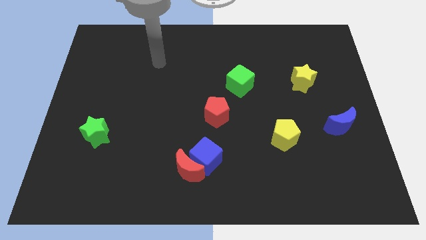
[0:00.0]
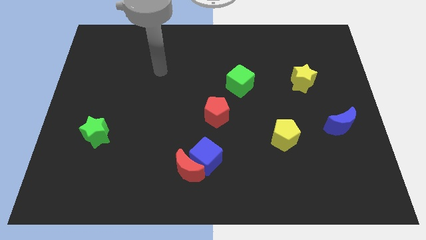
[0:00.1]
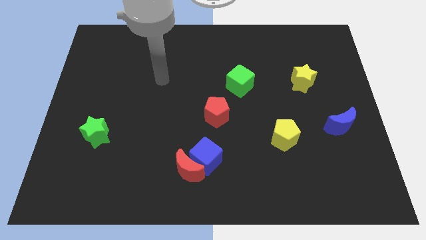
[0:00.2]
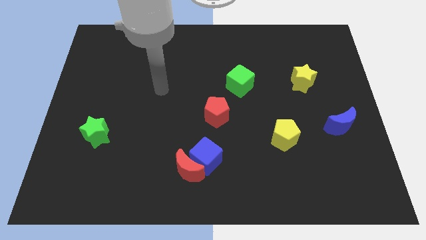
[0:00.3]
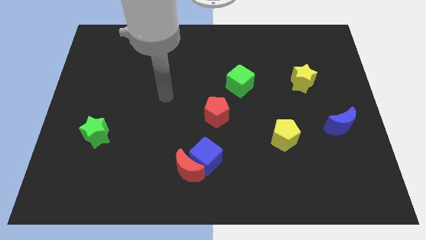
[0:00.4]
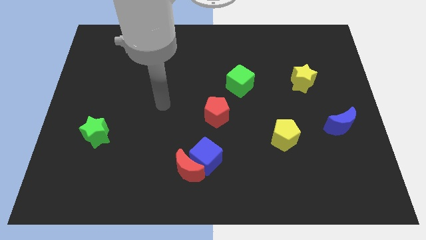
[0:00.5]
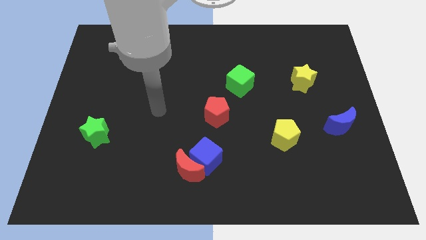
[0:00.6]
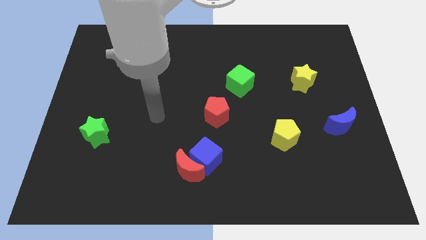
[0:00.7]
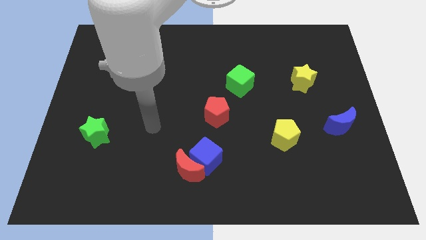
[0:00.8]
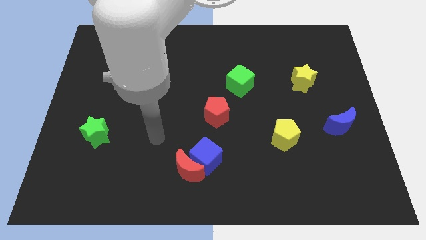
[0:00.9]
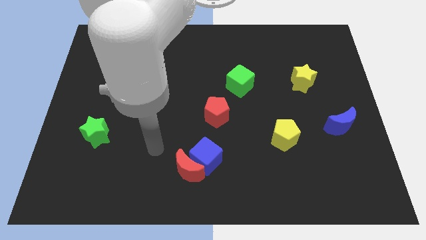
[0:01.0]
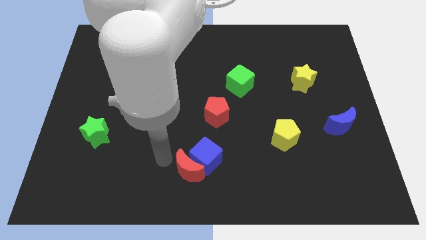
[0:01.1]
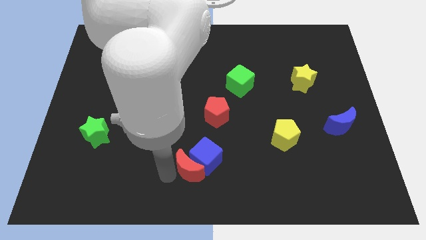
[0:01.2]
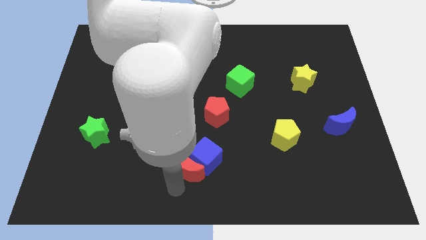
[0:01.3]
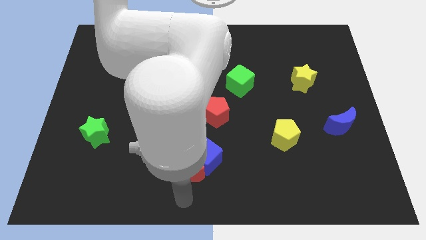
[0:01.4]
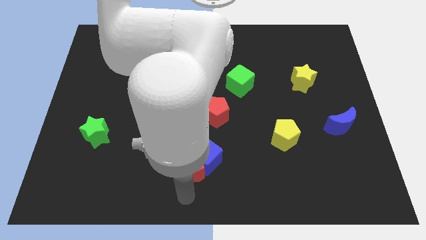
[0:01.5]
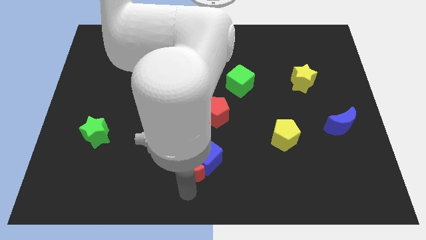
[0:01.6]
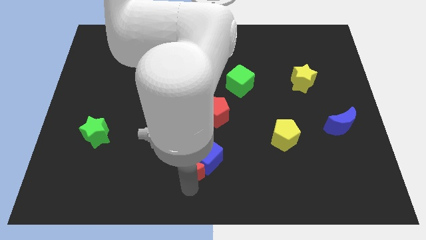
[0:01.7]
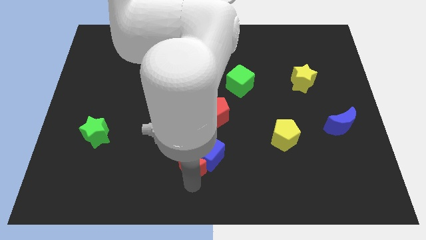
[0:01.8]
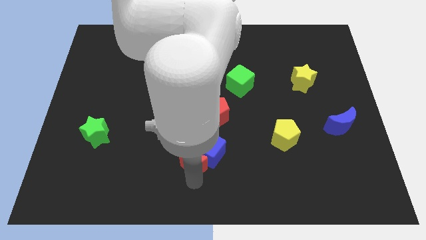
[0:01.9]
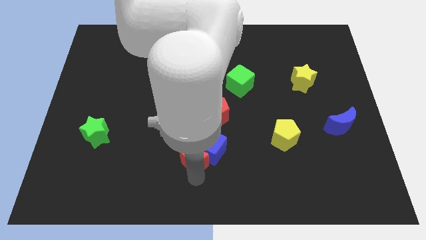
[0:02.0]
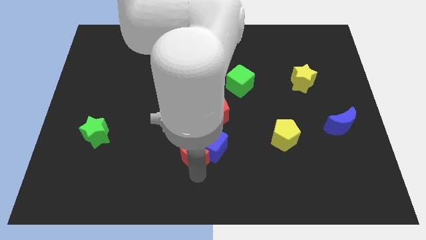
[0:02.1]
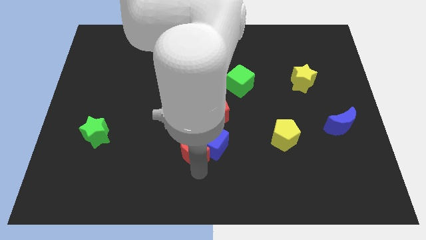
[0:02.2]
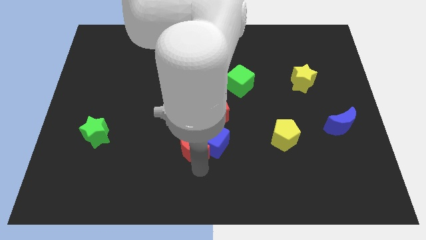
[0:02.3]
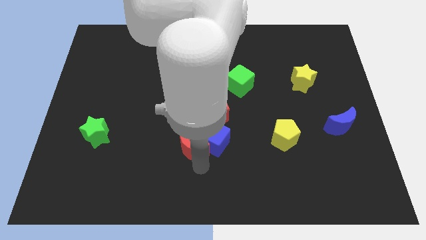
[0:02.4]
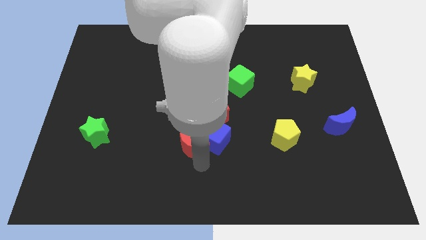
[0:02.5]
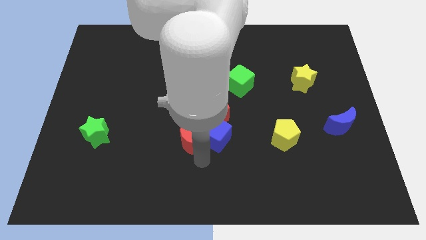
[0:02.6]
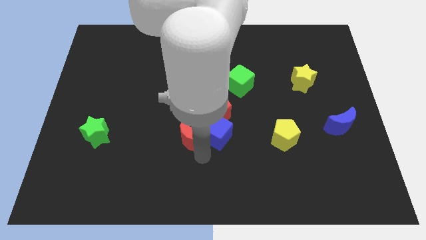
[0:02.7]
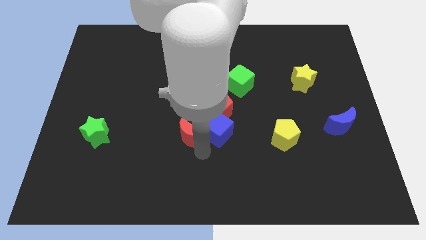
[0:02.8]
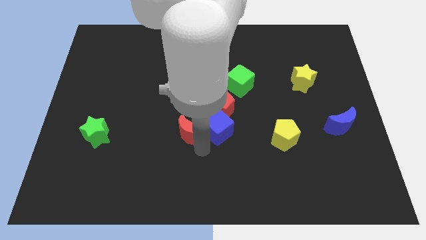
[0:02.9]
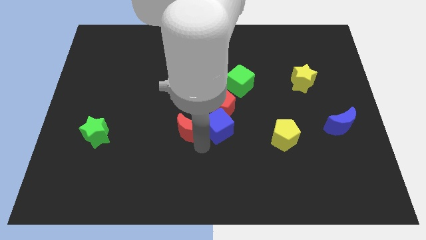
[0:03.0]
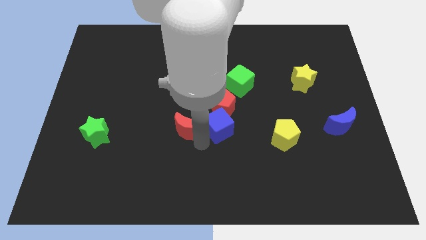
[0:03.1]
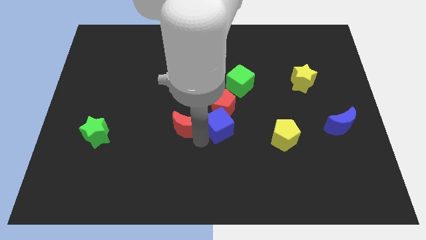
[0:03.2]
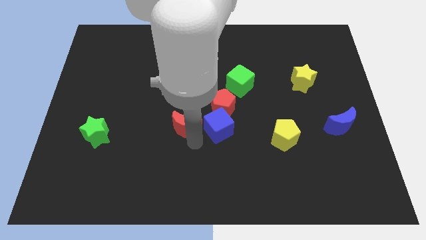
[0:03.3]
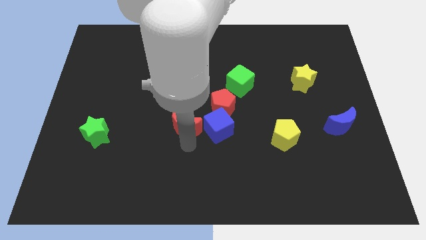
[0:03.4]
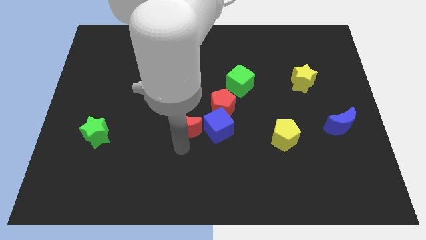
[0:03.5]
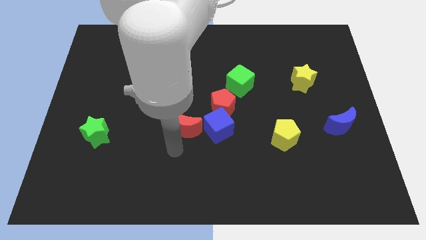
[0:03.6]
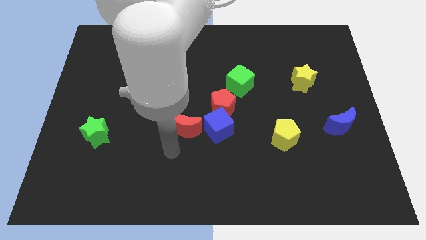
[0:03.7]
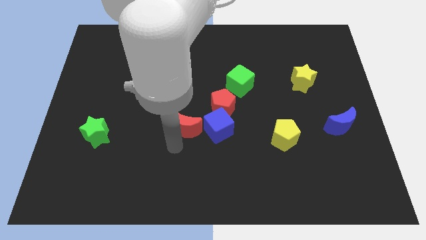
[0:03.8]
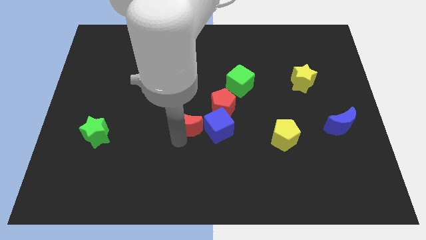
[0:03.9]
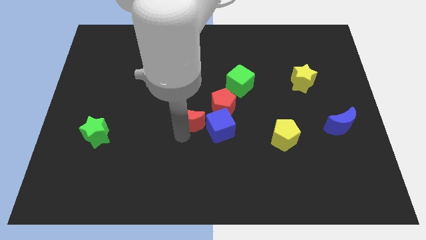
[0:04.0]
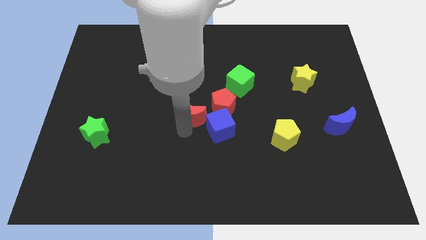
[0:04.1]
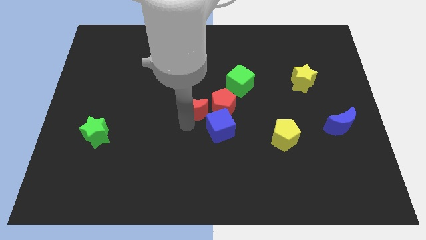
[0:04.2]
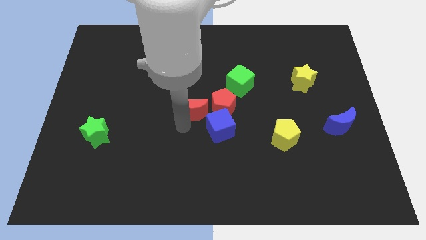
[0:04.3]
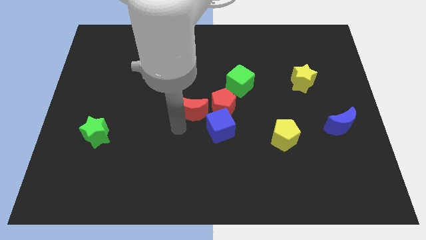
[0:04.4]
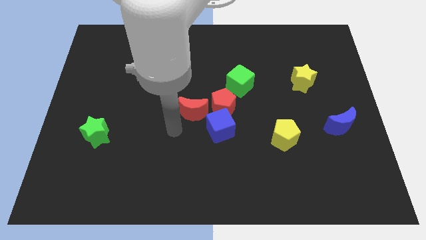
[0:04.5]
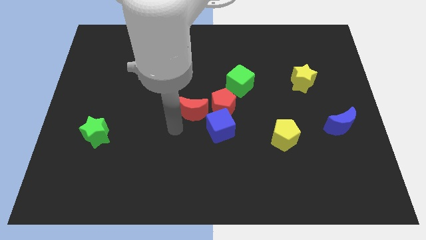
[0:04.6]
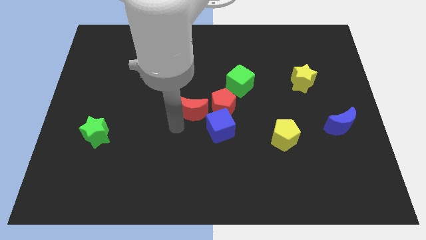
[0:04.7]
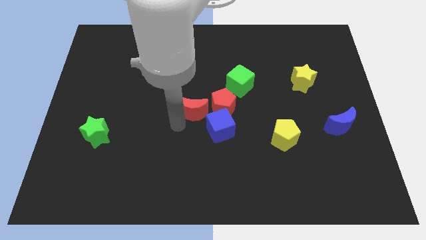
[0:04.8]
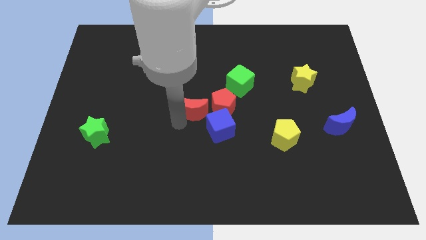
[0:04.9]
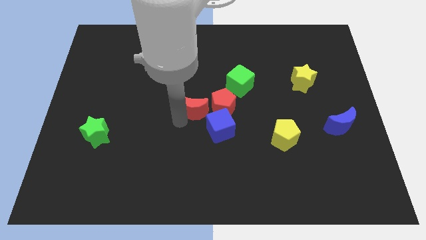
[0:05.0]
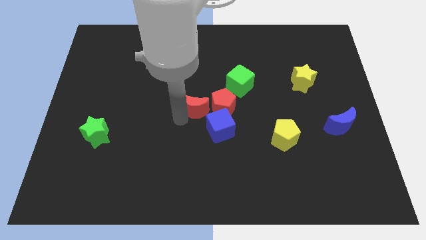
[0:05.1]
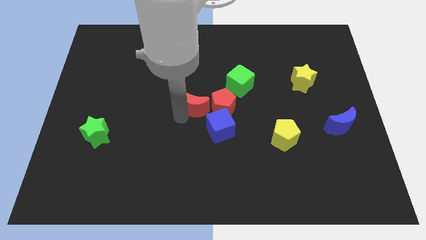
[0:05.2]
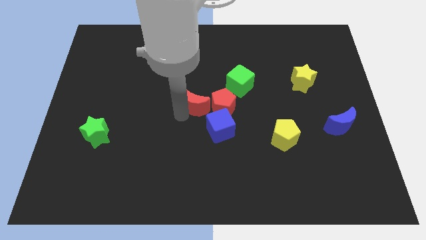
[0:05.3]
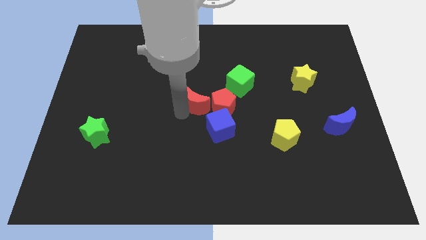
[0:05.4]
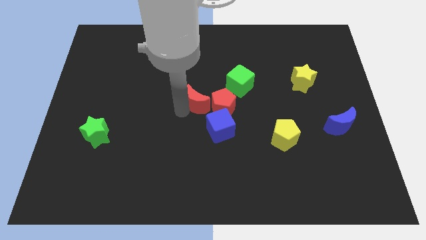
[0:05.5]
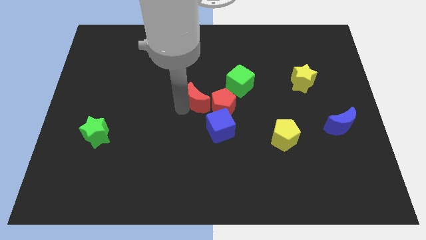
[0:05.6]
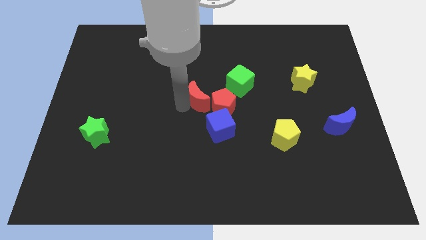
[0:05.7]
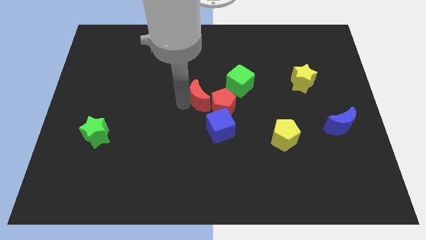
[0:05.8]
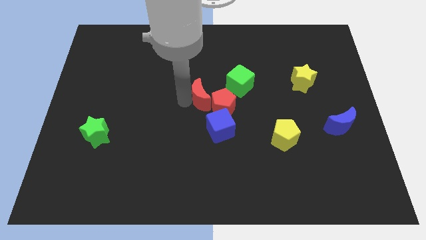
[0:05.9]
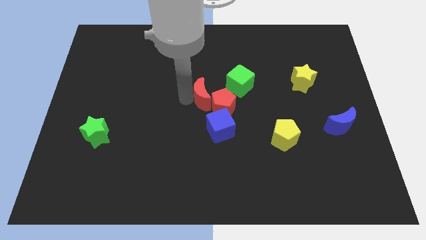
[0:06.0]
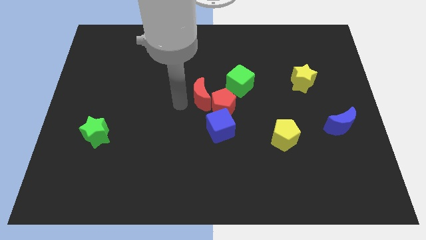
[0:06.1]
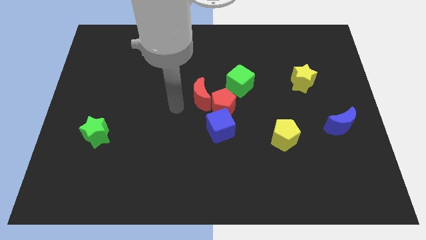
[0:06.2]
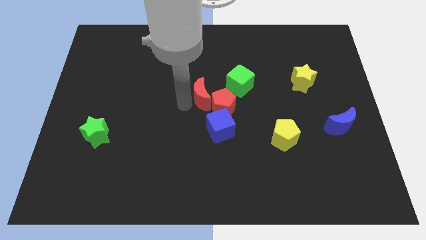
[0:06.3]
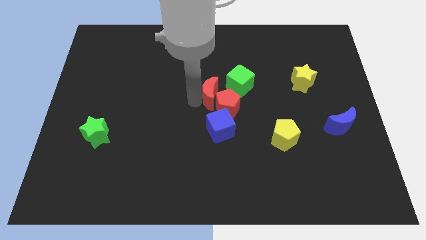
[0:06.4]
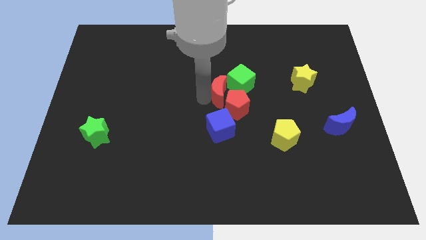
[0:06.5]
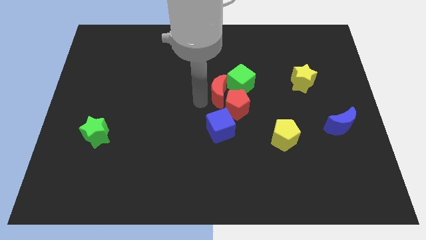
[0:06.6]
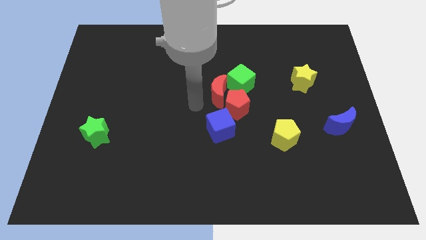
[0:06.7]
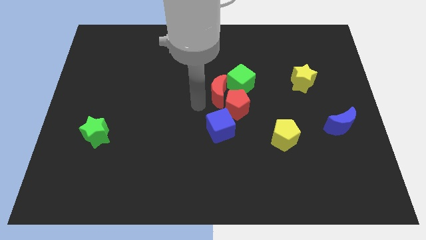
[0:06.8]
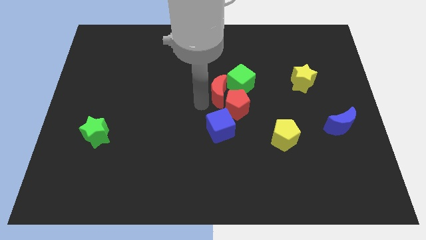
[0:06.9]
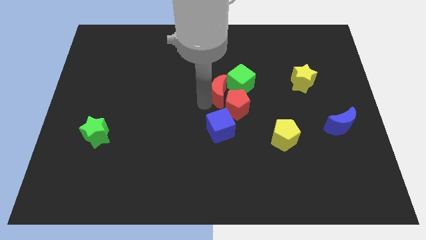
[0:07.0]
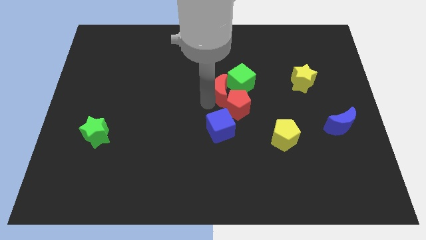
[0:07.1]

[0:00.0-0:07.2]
put the red moon next to the green cube
